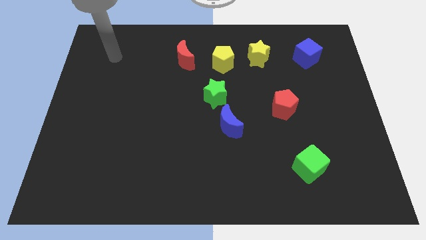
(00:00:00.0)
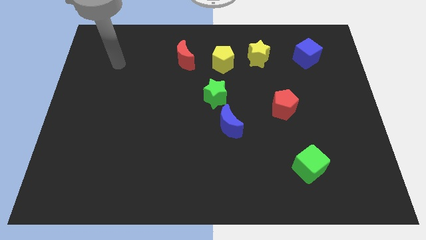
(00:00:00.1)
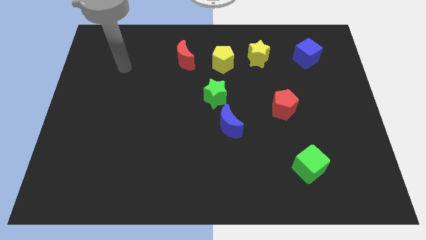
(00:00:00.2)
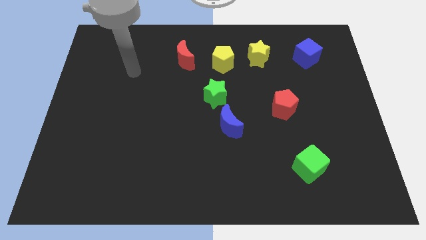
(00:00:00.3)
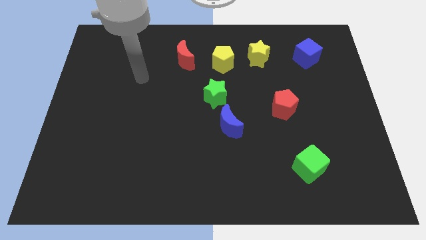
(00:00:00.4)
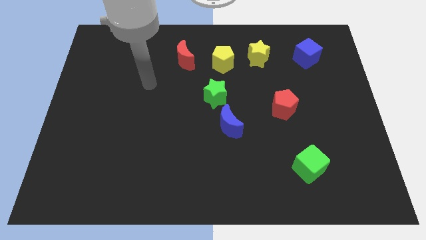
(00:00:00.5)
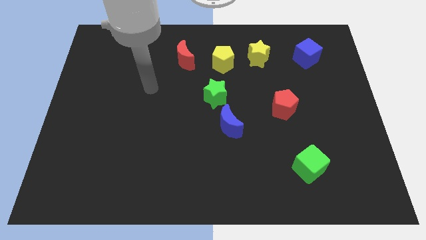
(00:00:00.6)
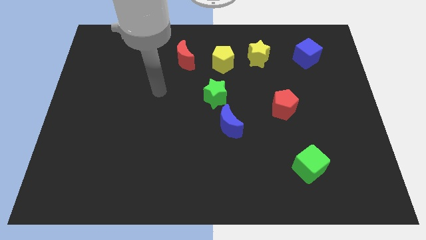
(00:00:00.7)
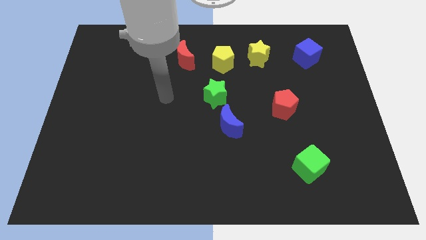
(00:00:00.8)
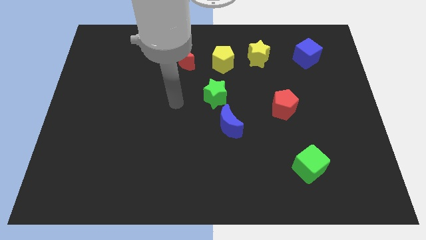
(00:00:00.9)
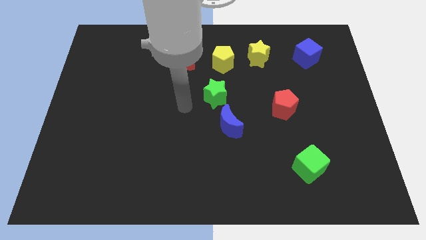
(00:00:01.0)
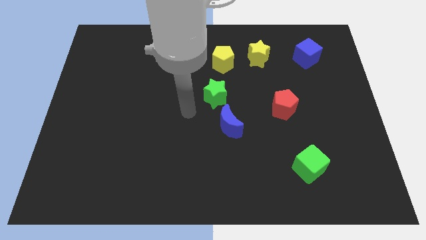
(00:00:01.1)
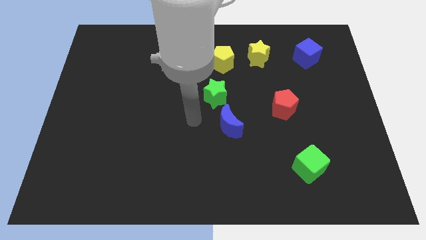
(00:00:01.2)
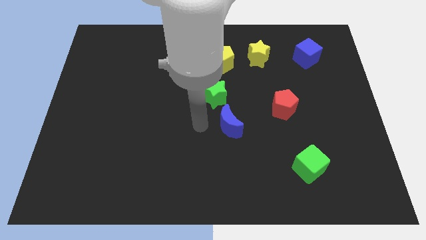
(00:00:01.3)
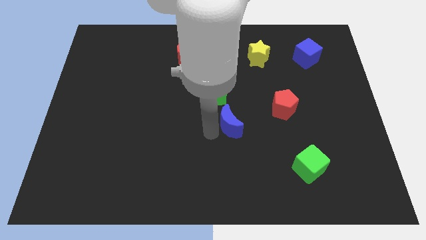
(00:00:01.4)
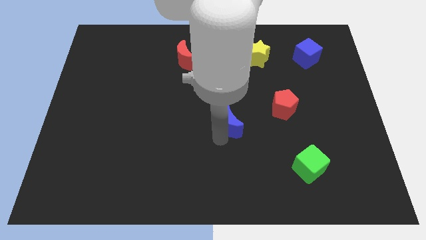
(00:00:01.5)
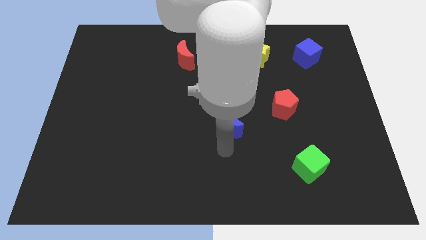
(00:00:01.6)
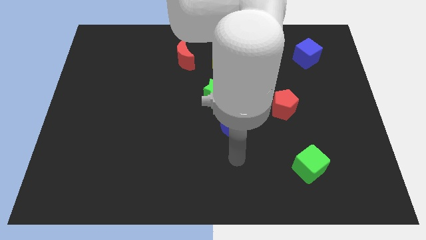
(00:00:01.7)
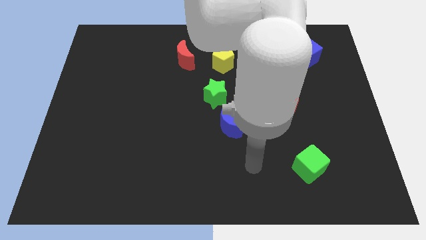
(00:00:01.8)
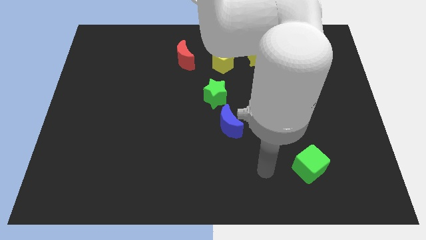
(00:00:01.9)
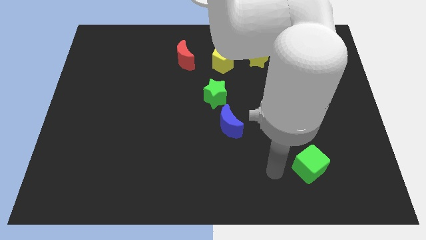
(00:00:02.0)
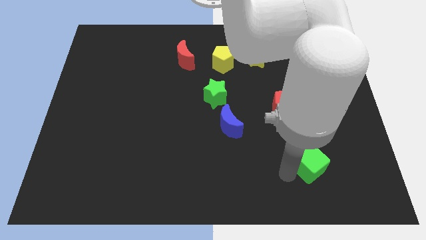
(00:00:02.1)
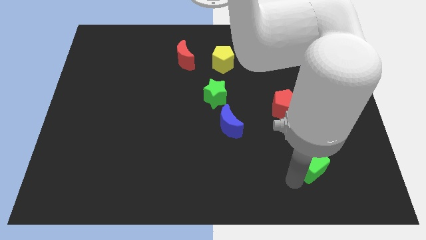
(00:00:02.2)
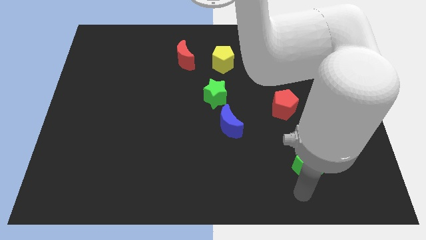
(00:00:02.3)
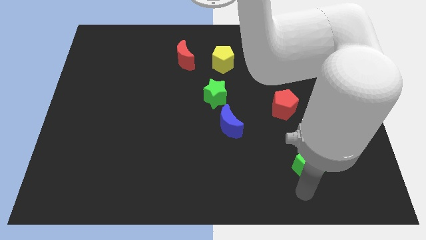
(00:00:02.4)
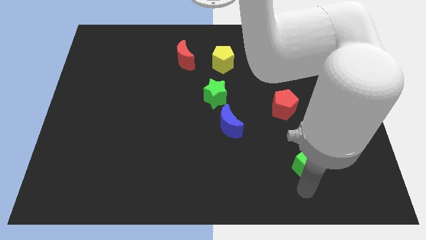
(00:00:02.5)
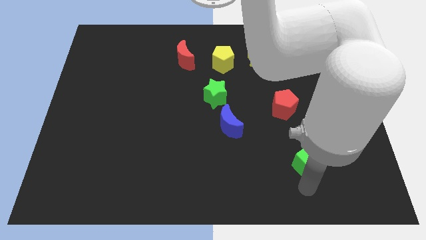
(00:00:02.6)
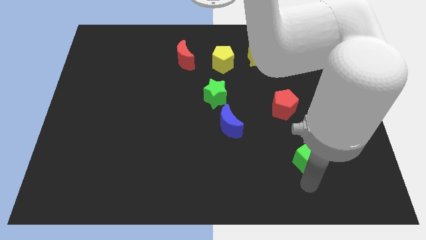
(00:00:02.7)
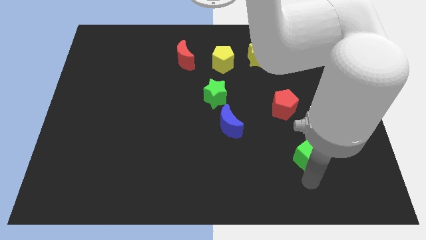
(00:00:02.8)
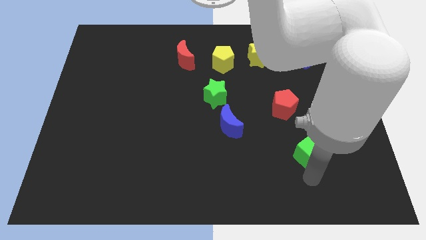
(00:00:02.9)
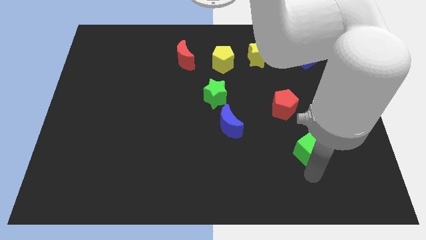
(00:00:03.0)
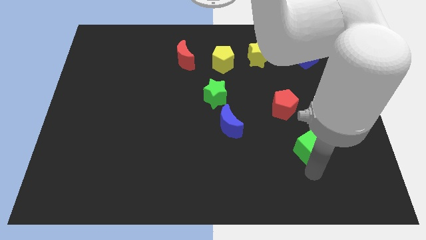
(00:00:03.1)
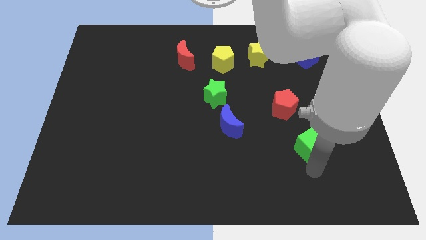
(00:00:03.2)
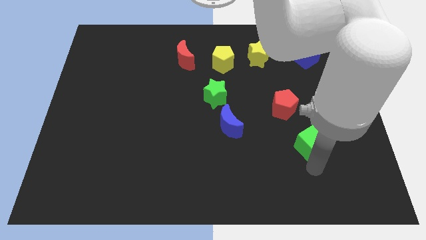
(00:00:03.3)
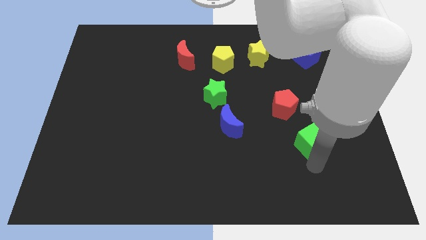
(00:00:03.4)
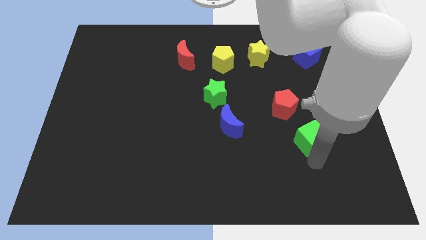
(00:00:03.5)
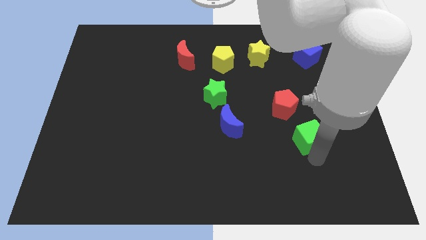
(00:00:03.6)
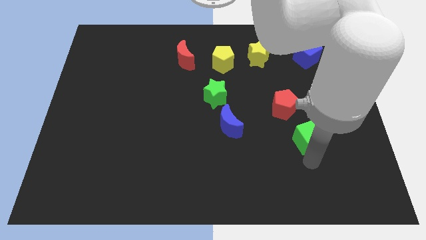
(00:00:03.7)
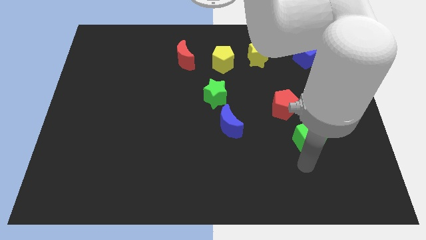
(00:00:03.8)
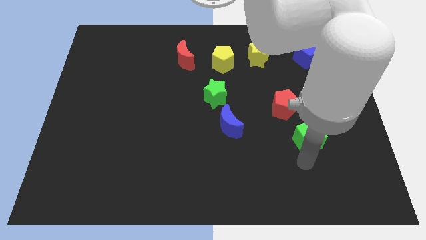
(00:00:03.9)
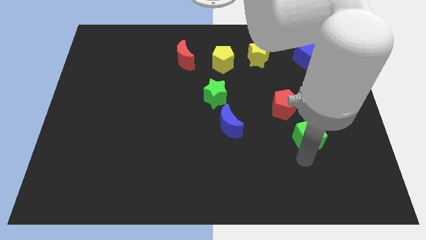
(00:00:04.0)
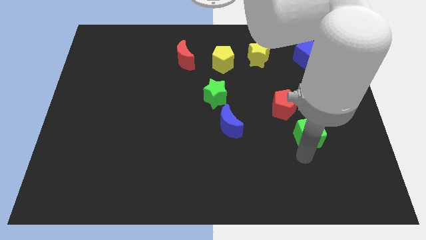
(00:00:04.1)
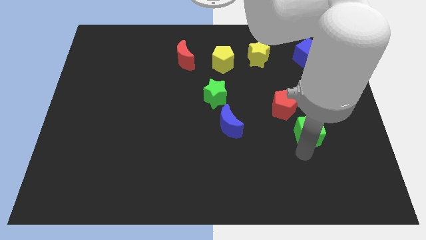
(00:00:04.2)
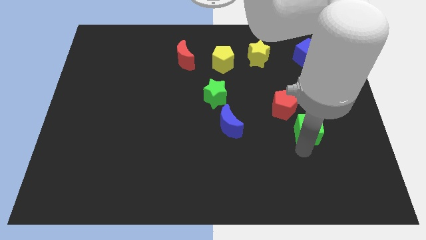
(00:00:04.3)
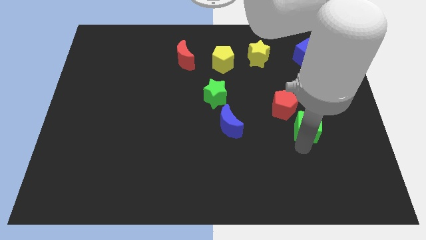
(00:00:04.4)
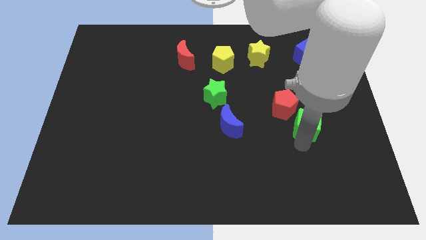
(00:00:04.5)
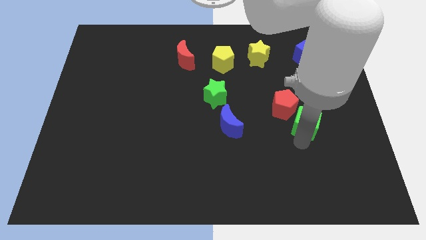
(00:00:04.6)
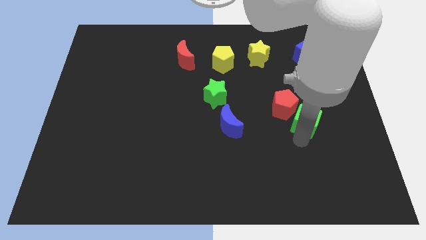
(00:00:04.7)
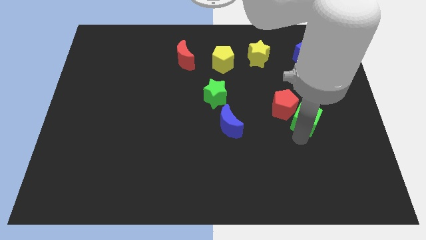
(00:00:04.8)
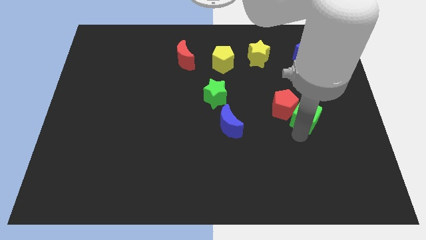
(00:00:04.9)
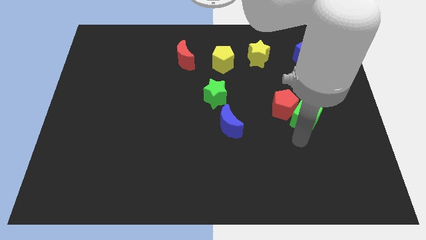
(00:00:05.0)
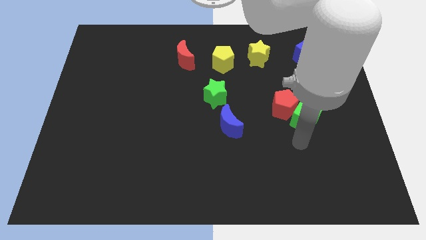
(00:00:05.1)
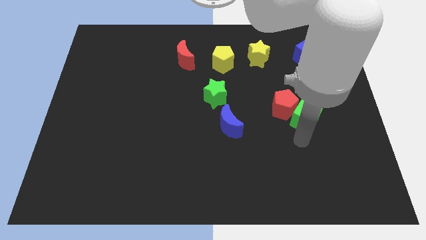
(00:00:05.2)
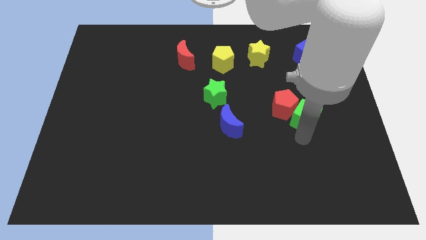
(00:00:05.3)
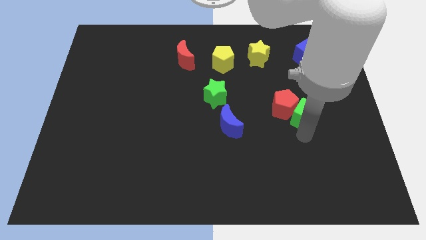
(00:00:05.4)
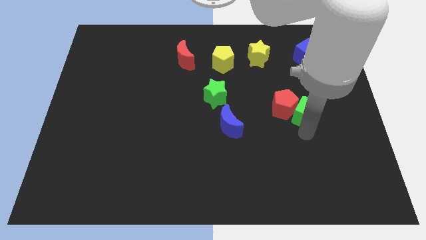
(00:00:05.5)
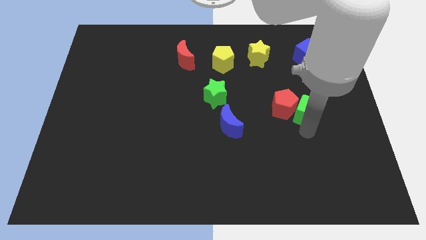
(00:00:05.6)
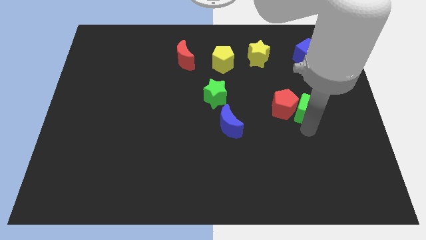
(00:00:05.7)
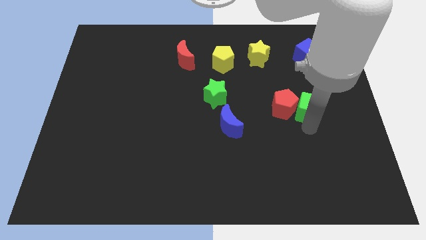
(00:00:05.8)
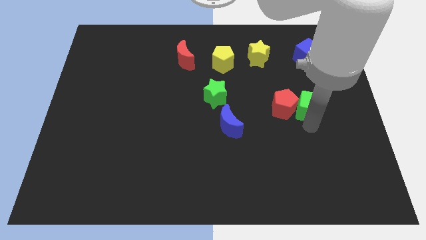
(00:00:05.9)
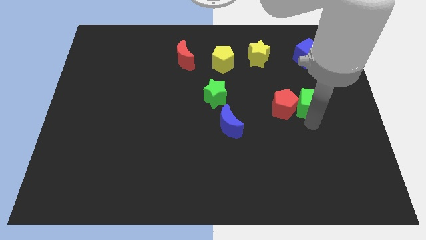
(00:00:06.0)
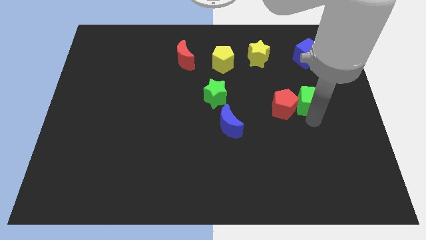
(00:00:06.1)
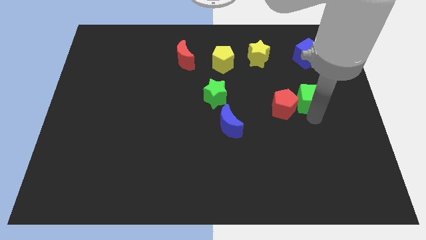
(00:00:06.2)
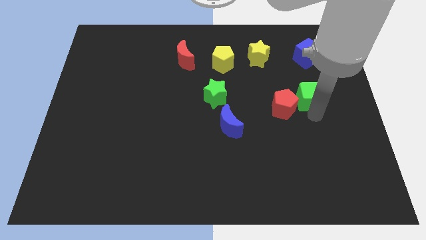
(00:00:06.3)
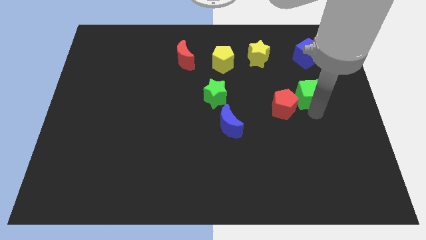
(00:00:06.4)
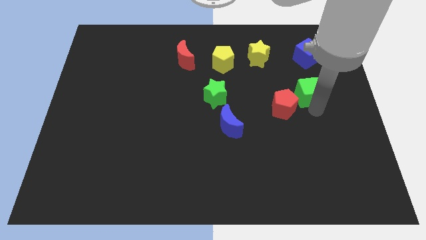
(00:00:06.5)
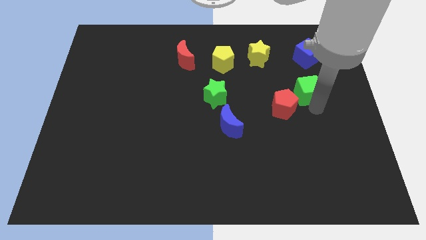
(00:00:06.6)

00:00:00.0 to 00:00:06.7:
push the green cube up

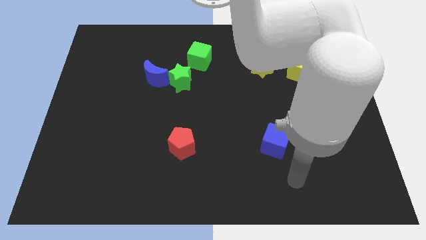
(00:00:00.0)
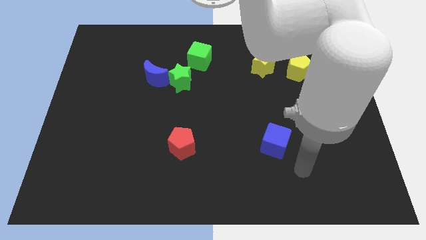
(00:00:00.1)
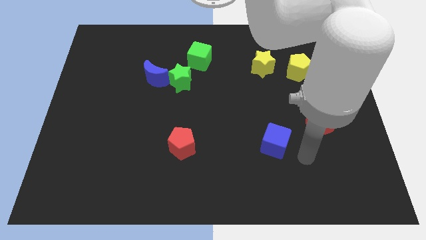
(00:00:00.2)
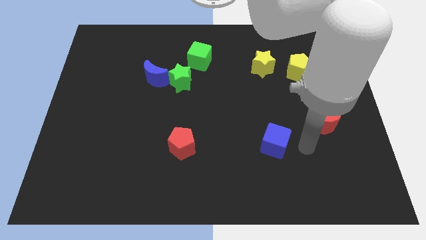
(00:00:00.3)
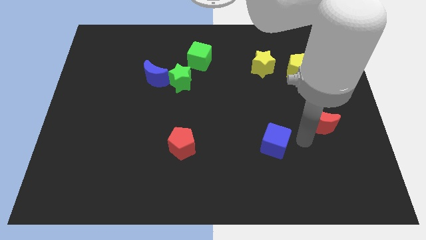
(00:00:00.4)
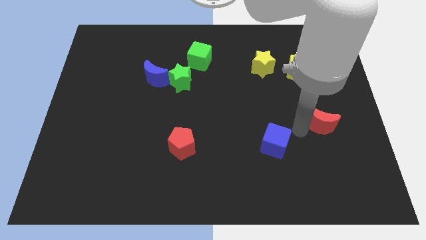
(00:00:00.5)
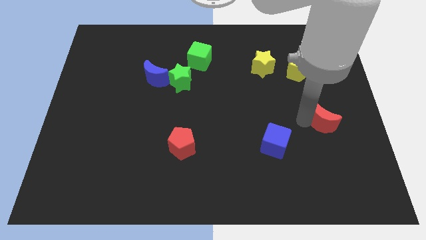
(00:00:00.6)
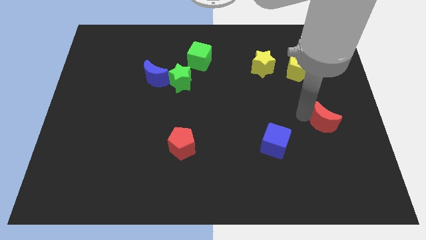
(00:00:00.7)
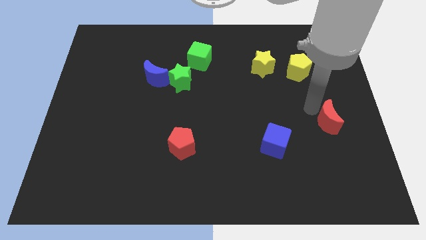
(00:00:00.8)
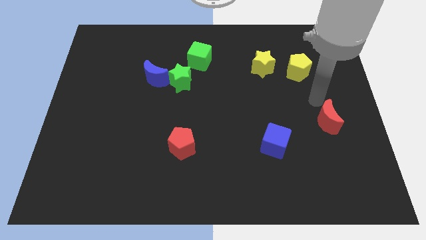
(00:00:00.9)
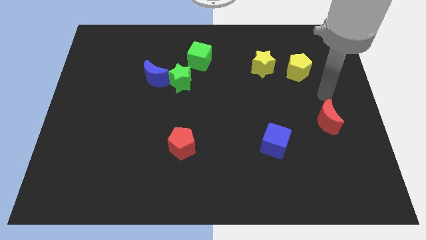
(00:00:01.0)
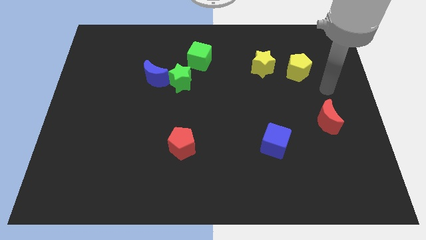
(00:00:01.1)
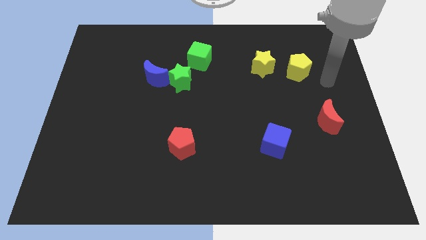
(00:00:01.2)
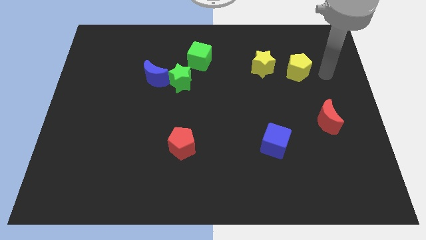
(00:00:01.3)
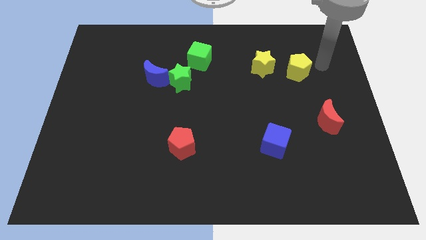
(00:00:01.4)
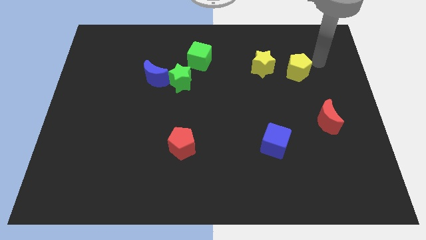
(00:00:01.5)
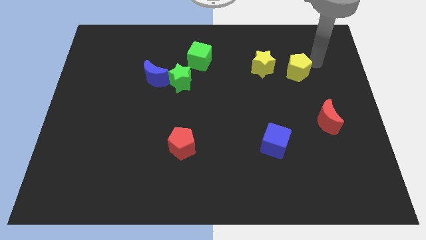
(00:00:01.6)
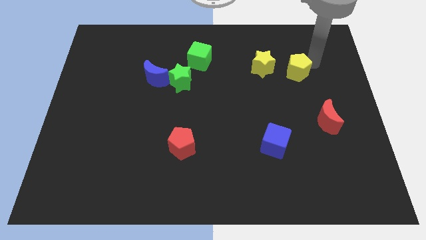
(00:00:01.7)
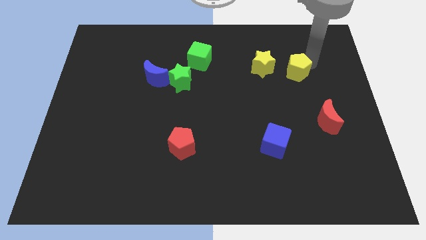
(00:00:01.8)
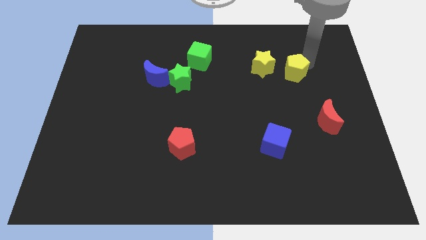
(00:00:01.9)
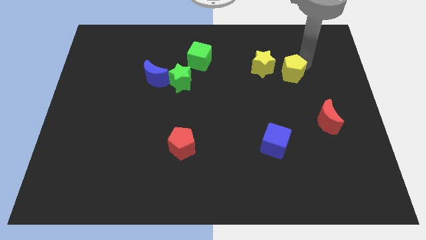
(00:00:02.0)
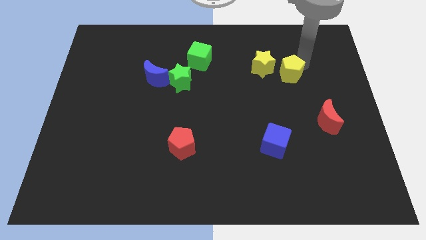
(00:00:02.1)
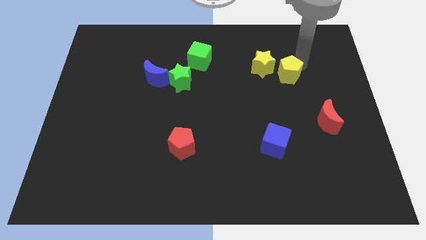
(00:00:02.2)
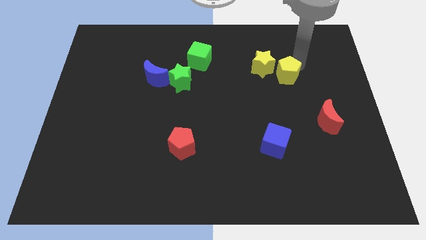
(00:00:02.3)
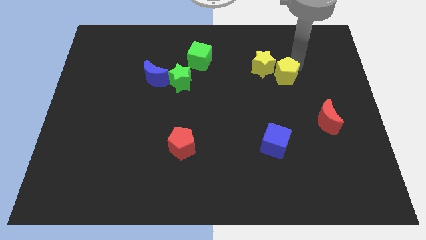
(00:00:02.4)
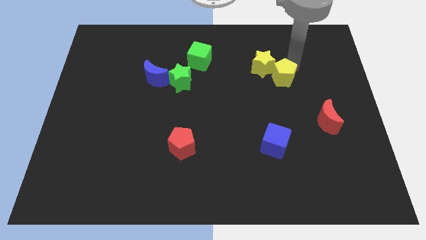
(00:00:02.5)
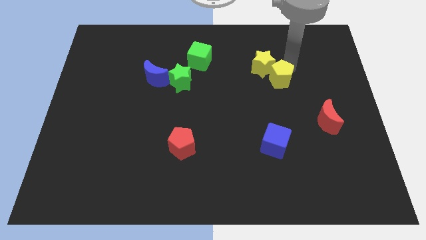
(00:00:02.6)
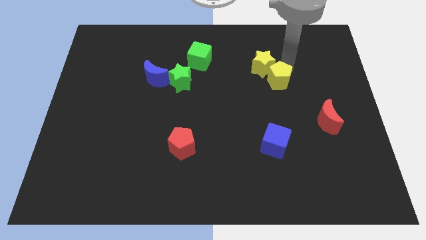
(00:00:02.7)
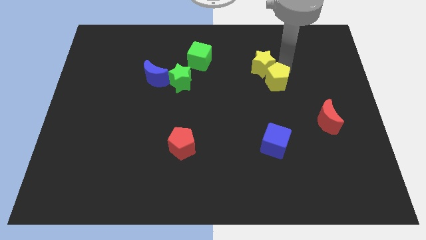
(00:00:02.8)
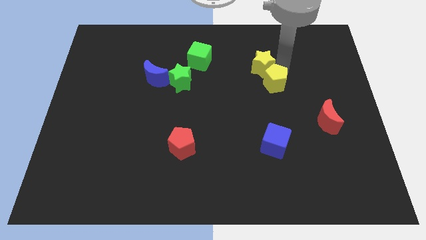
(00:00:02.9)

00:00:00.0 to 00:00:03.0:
push the yellow pentagon downwards and then to the left a little bit
